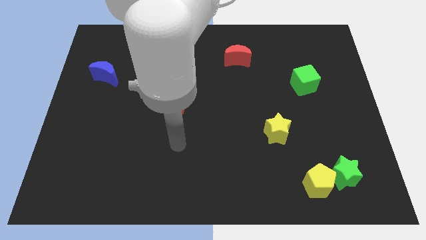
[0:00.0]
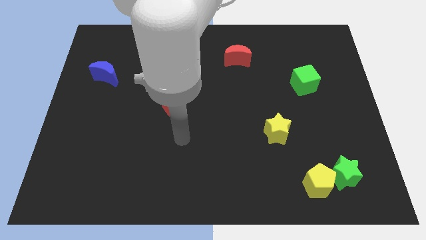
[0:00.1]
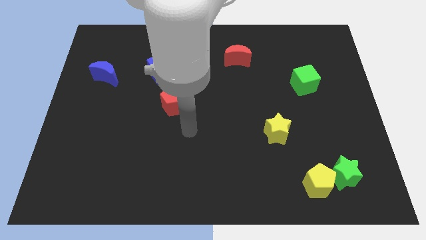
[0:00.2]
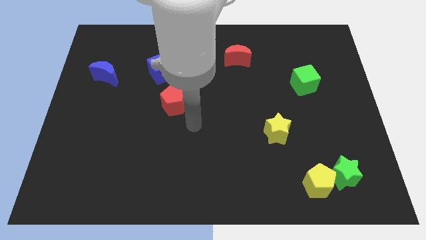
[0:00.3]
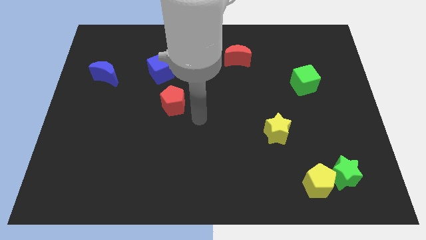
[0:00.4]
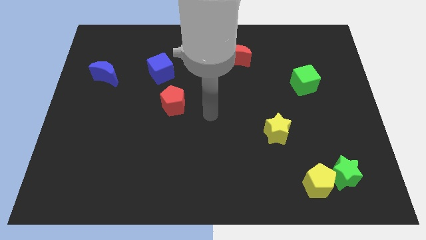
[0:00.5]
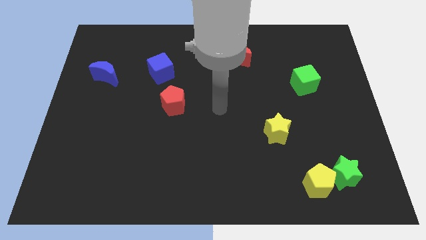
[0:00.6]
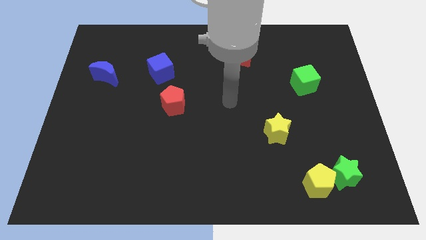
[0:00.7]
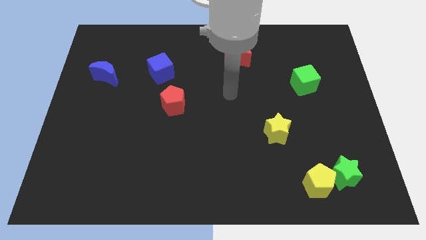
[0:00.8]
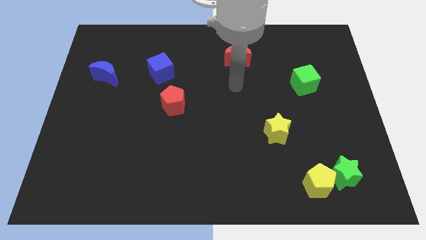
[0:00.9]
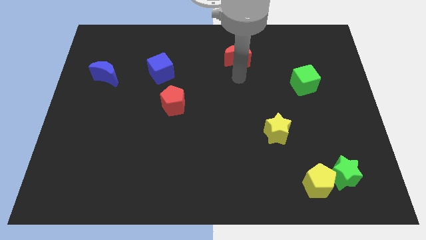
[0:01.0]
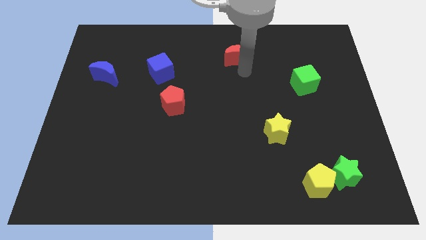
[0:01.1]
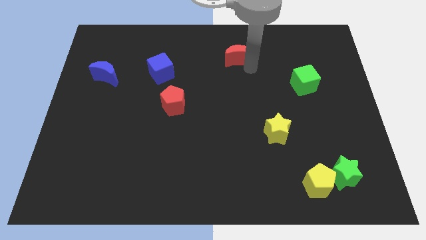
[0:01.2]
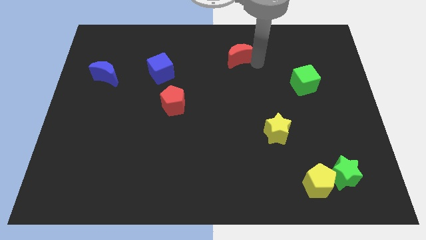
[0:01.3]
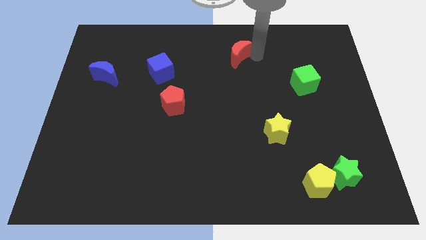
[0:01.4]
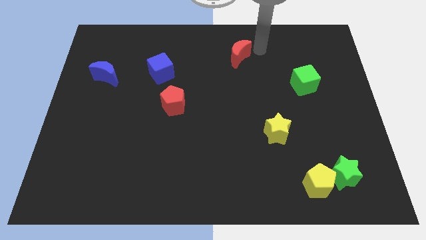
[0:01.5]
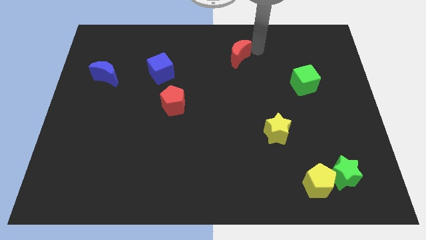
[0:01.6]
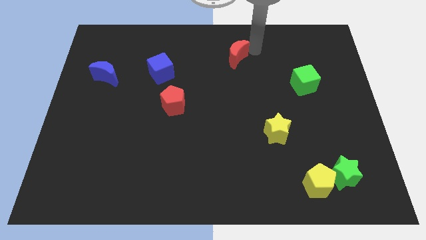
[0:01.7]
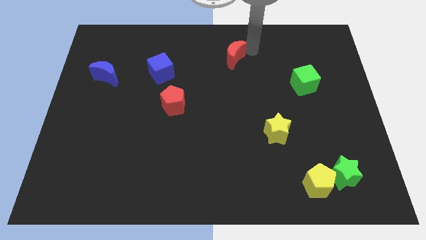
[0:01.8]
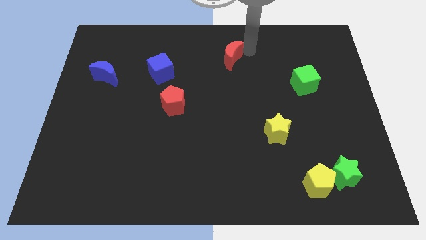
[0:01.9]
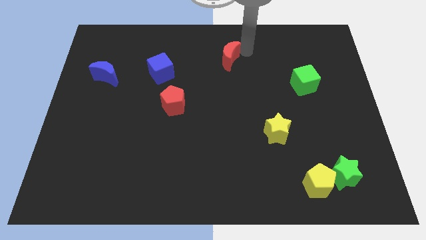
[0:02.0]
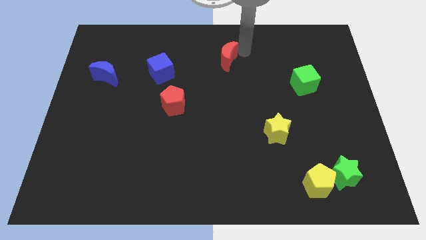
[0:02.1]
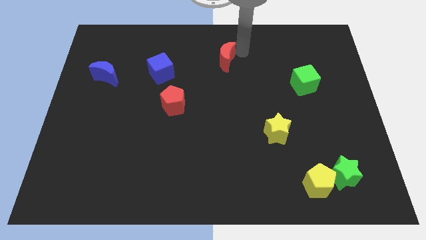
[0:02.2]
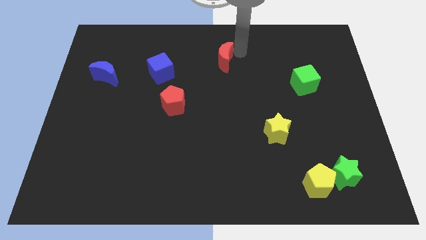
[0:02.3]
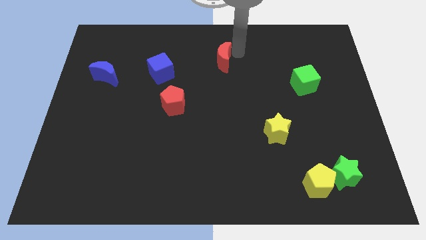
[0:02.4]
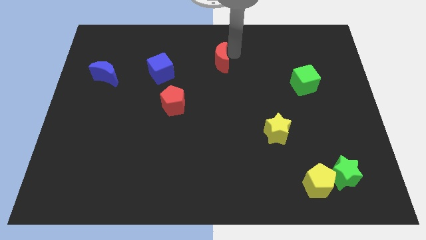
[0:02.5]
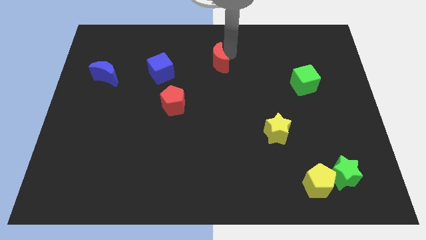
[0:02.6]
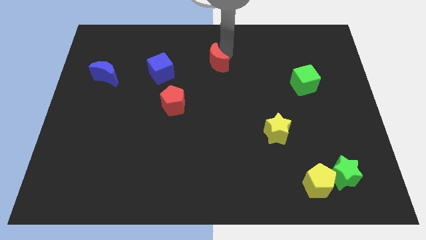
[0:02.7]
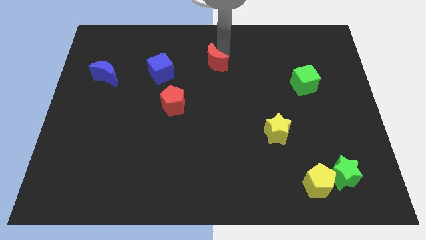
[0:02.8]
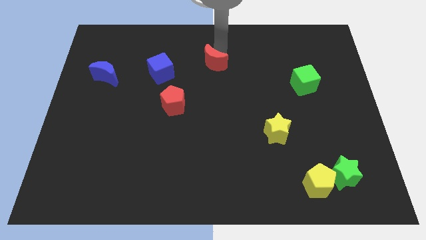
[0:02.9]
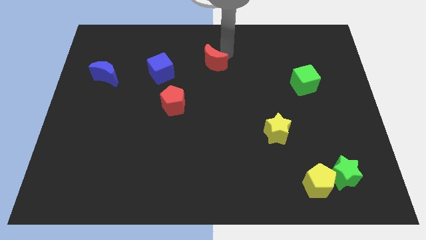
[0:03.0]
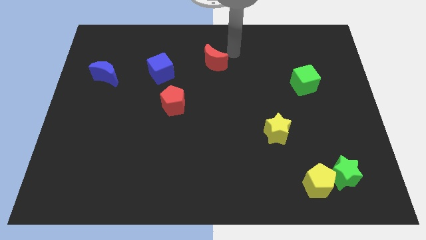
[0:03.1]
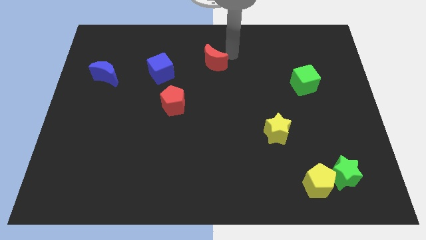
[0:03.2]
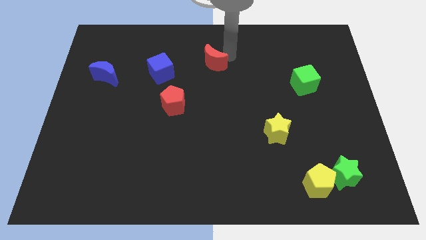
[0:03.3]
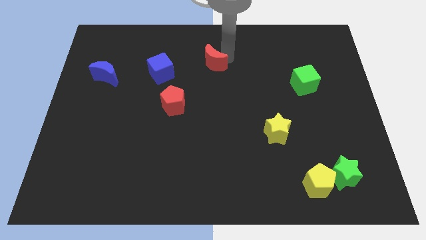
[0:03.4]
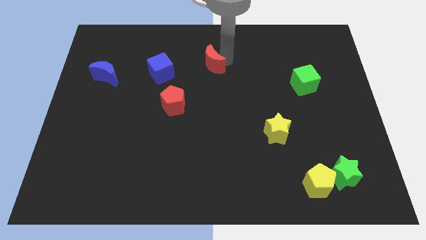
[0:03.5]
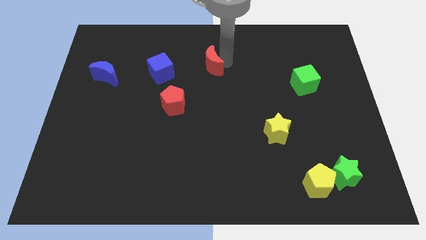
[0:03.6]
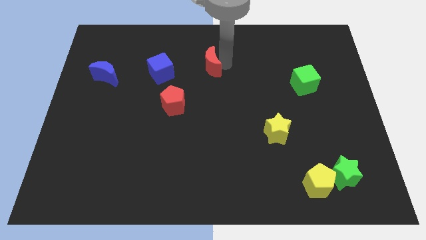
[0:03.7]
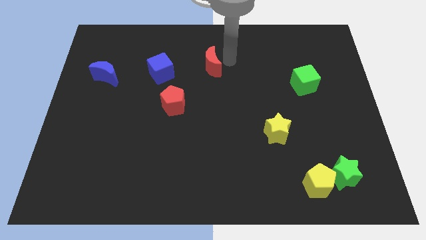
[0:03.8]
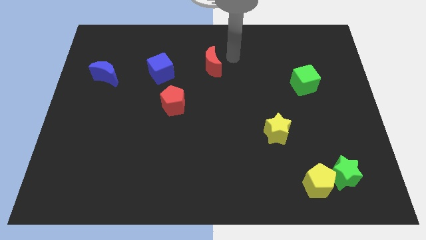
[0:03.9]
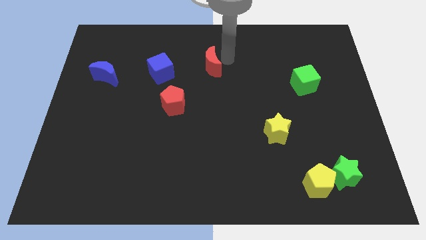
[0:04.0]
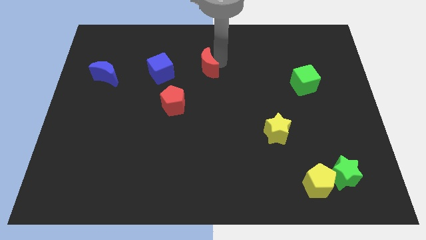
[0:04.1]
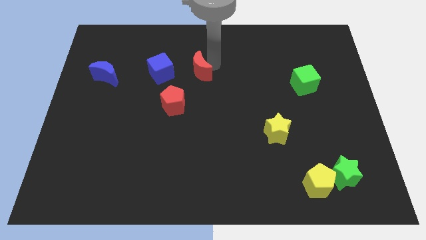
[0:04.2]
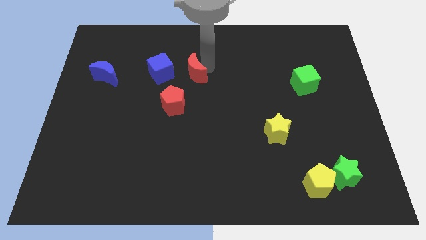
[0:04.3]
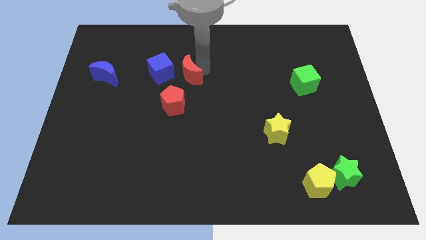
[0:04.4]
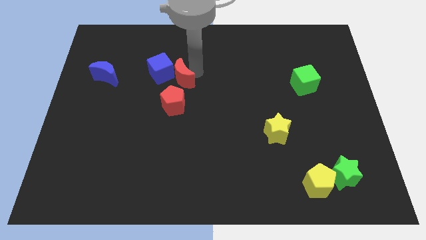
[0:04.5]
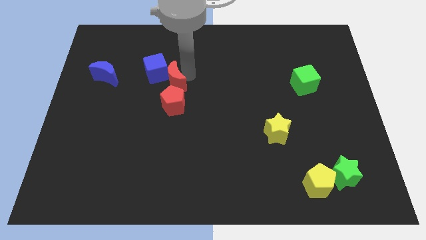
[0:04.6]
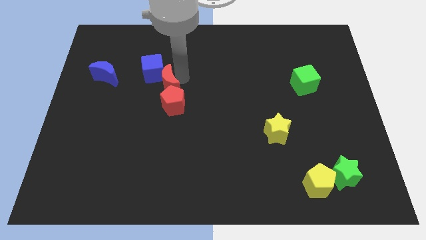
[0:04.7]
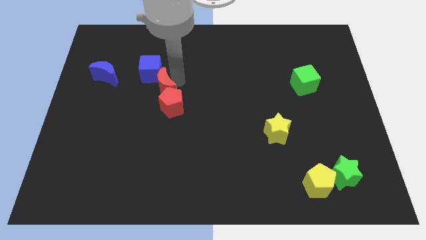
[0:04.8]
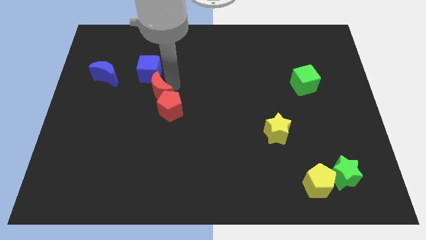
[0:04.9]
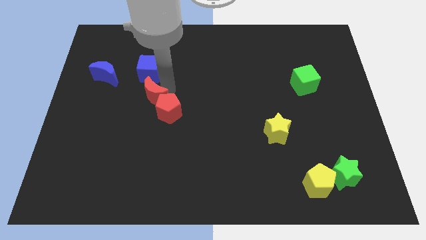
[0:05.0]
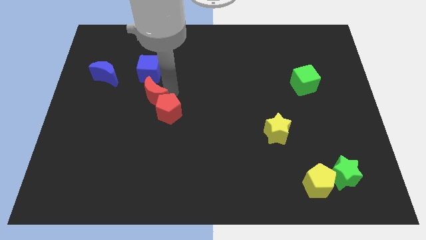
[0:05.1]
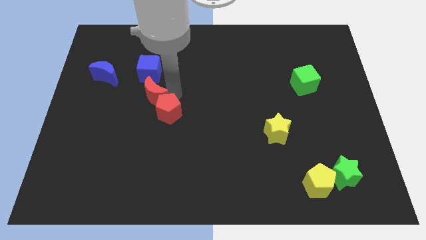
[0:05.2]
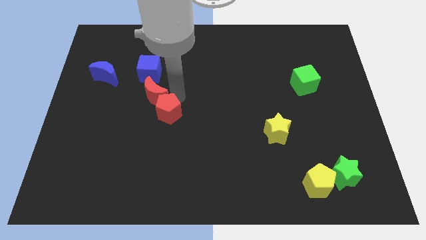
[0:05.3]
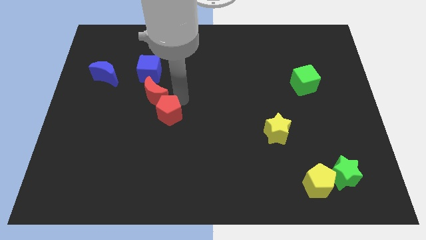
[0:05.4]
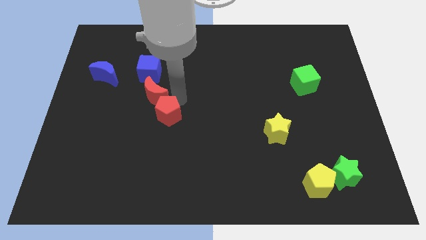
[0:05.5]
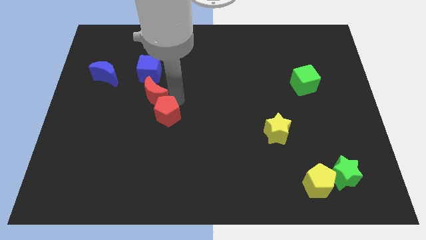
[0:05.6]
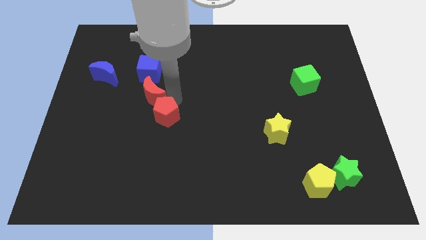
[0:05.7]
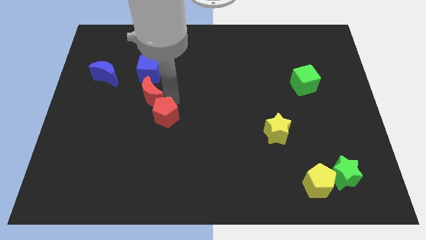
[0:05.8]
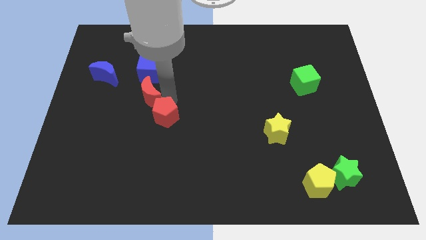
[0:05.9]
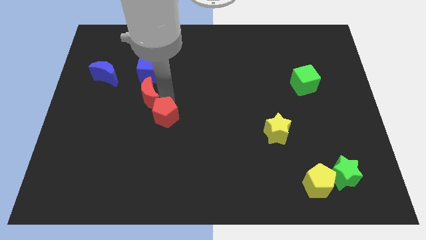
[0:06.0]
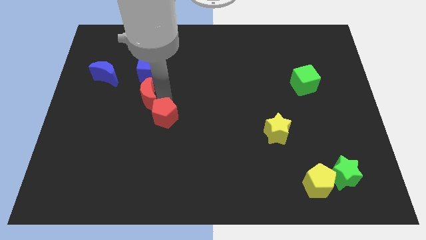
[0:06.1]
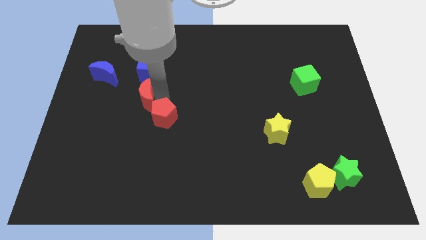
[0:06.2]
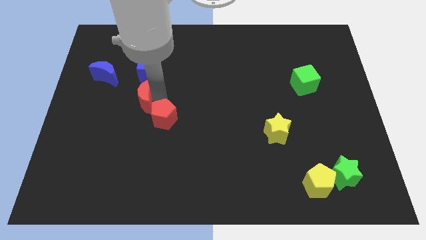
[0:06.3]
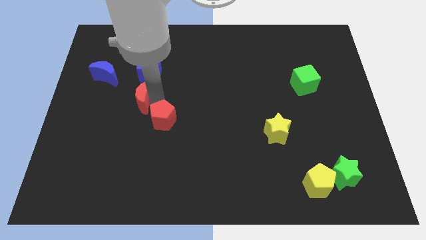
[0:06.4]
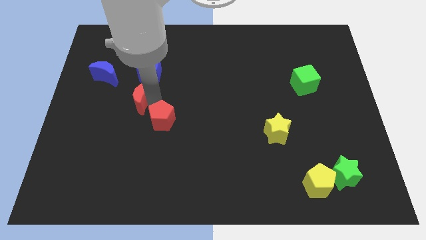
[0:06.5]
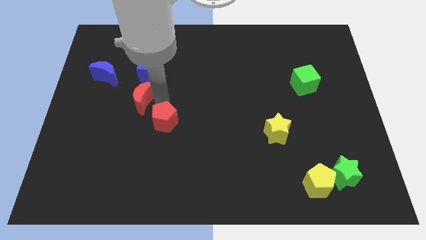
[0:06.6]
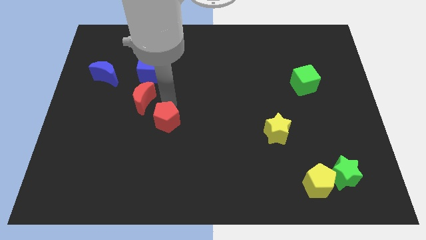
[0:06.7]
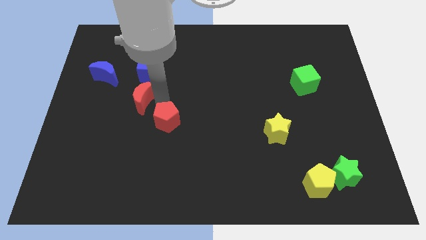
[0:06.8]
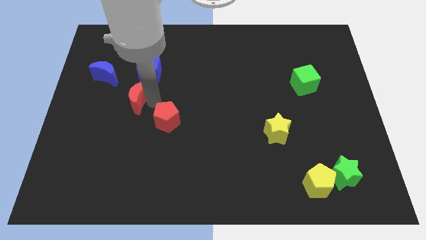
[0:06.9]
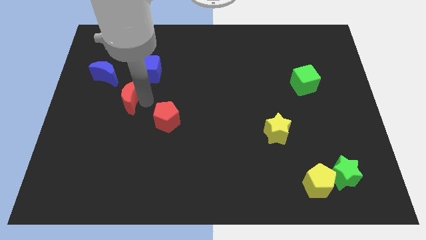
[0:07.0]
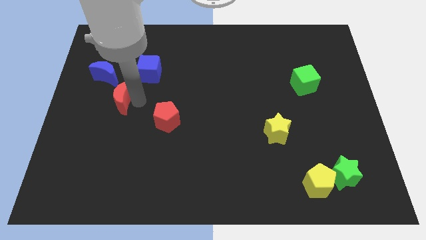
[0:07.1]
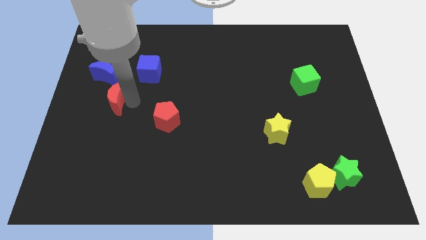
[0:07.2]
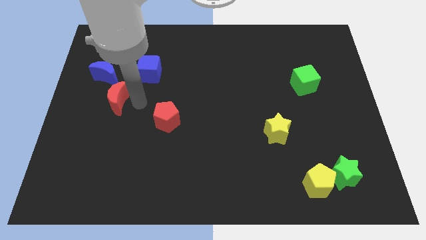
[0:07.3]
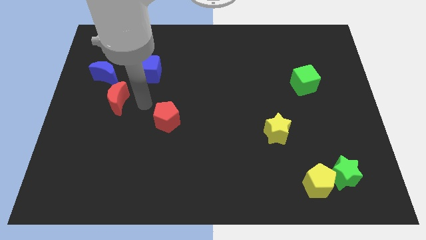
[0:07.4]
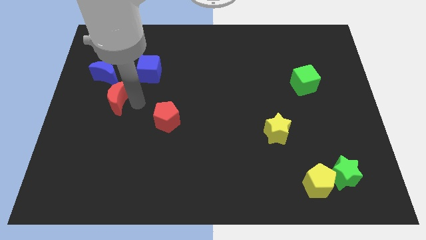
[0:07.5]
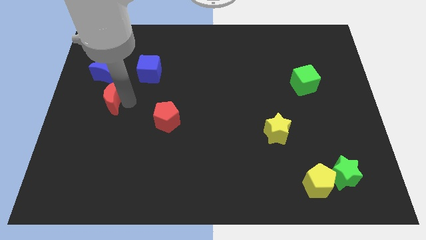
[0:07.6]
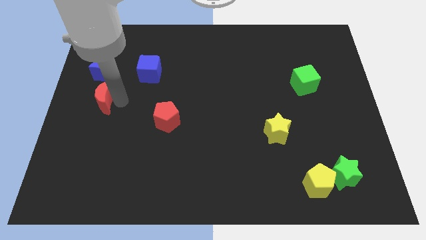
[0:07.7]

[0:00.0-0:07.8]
put the red moon to the left side of the board
